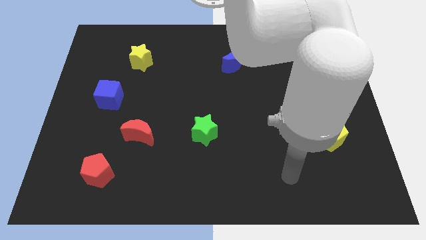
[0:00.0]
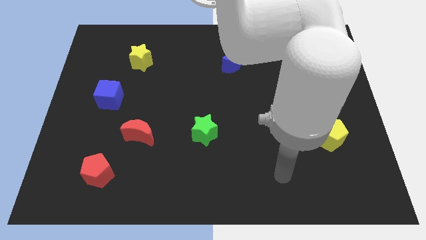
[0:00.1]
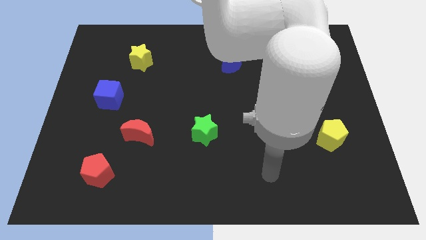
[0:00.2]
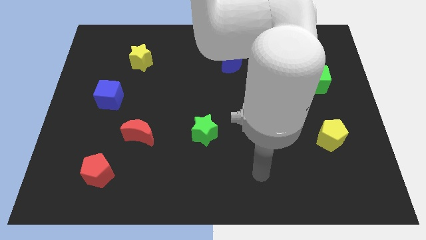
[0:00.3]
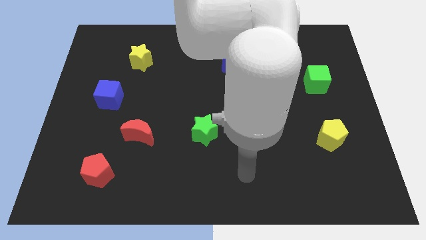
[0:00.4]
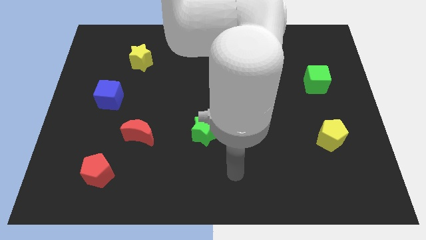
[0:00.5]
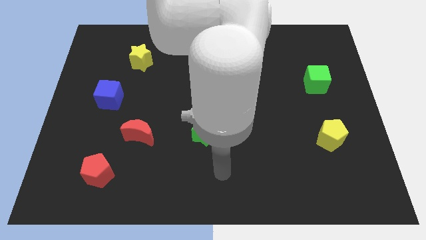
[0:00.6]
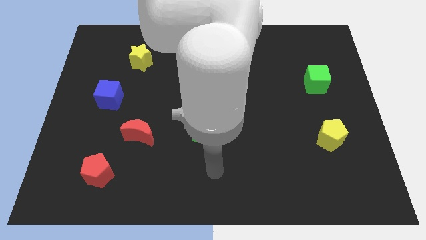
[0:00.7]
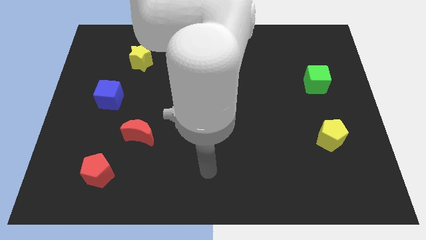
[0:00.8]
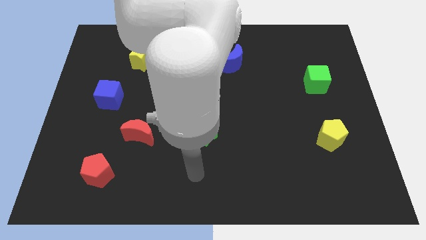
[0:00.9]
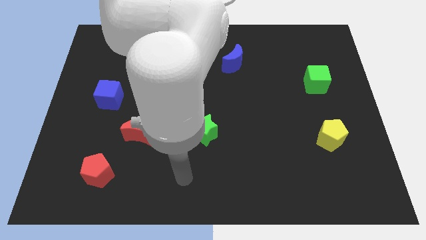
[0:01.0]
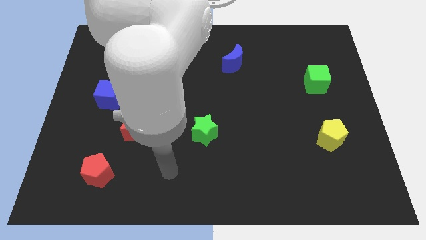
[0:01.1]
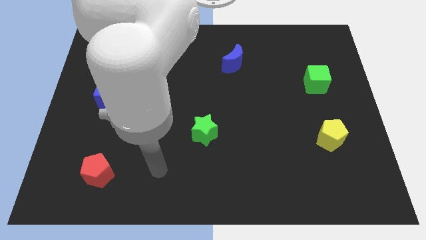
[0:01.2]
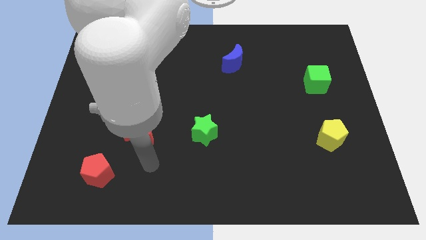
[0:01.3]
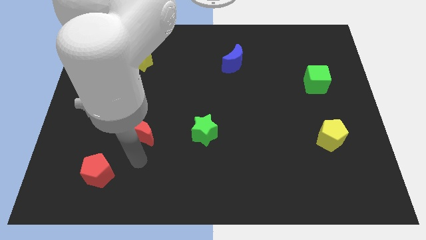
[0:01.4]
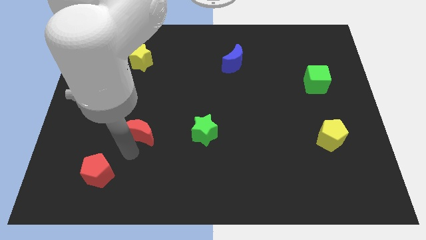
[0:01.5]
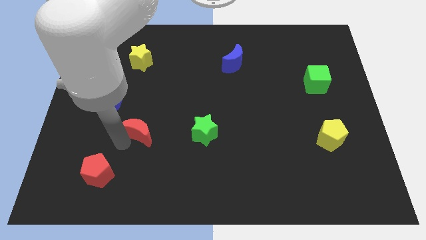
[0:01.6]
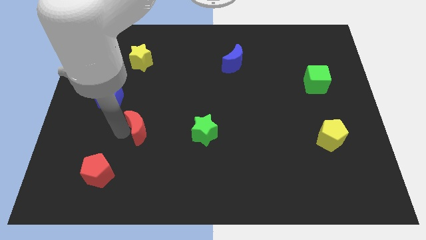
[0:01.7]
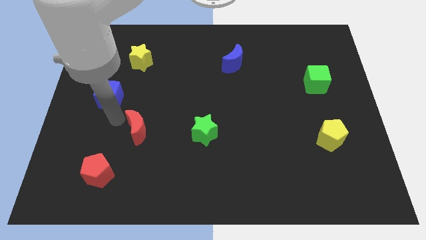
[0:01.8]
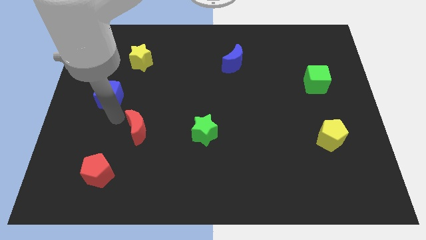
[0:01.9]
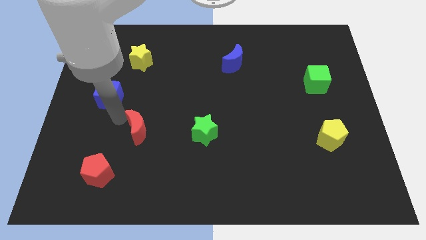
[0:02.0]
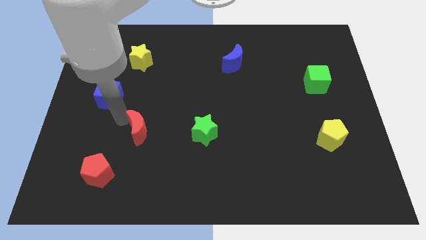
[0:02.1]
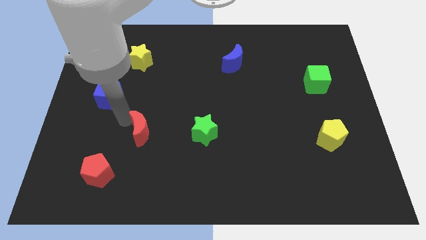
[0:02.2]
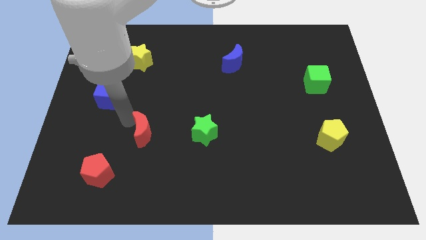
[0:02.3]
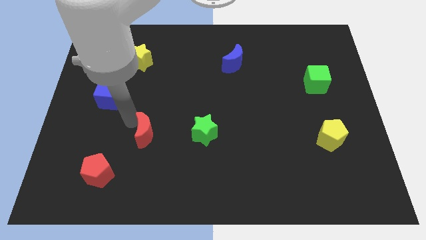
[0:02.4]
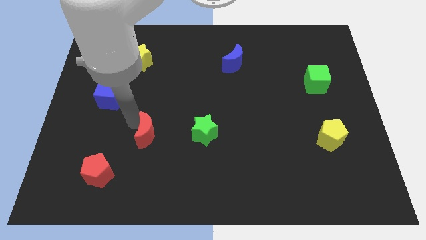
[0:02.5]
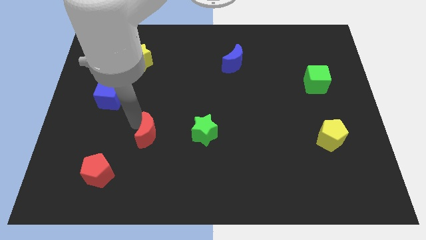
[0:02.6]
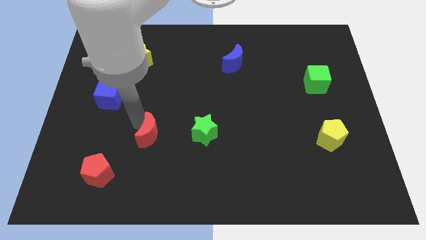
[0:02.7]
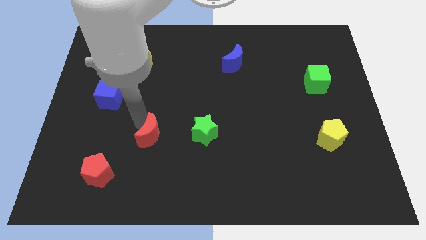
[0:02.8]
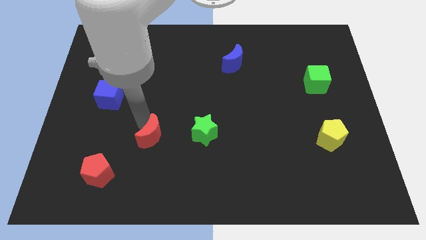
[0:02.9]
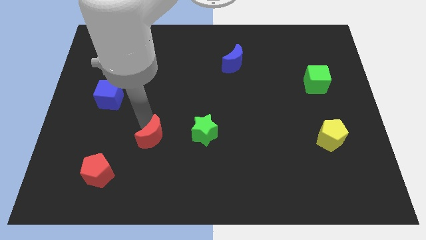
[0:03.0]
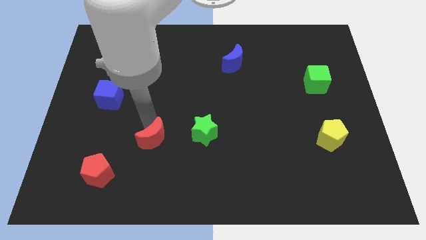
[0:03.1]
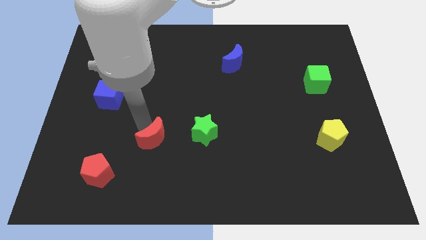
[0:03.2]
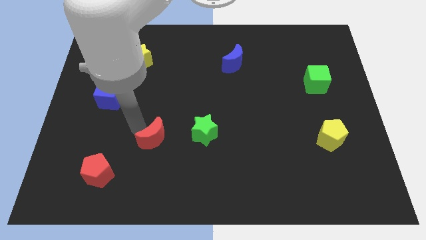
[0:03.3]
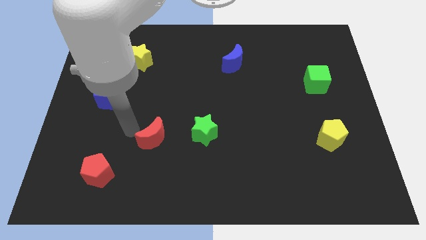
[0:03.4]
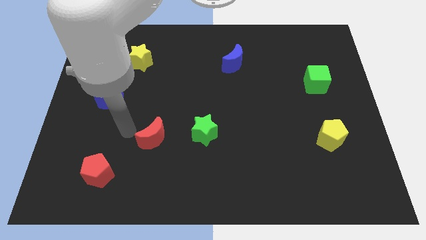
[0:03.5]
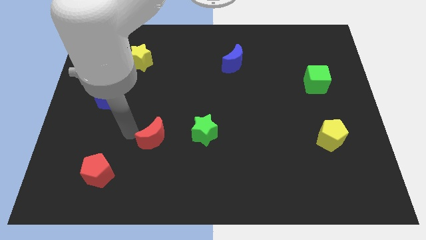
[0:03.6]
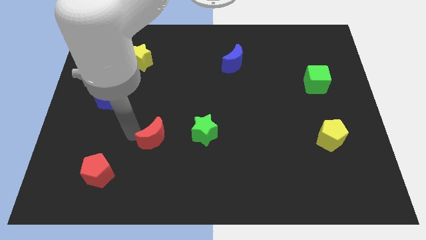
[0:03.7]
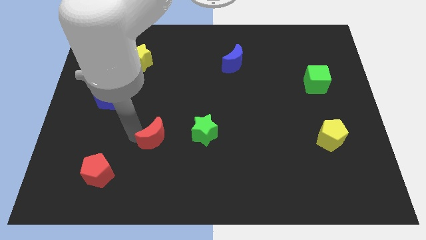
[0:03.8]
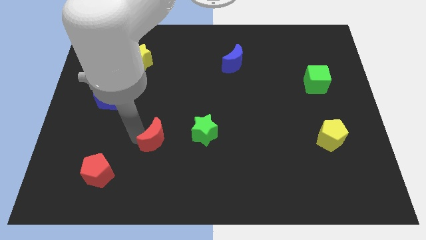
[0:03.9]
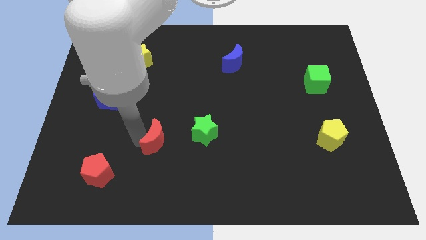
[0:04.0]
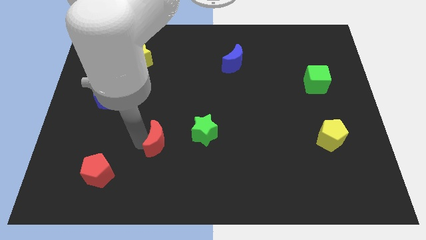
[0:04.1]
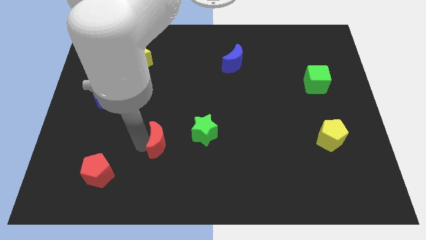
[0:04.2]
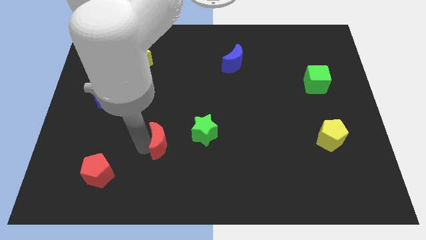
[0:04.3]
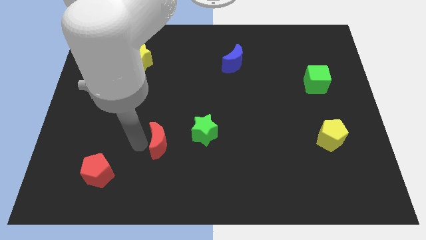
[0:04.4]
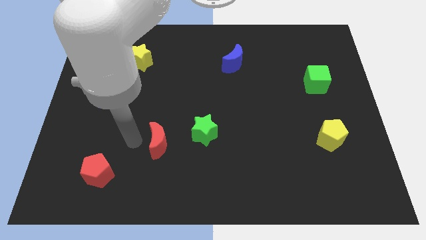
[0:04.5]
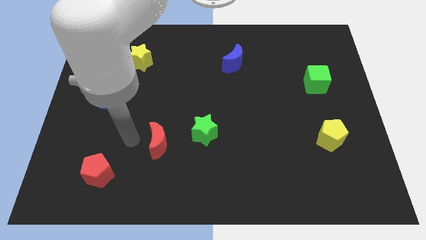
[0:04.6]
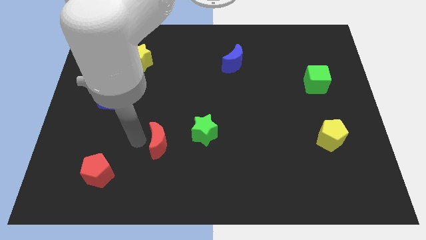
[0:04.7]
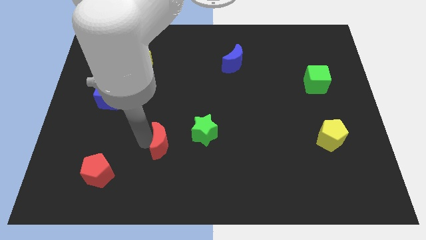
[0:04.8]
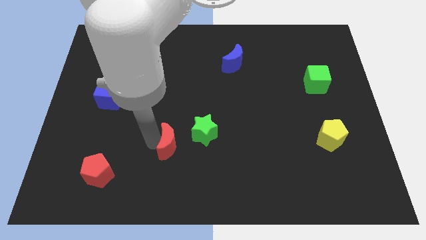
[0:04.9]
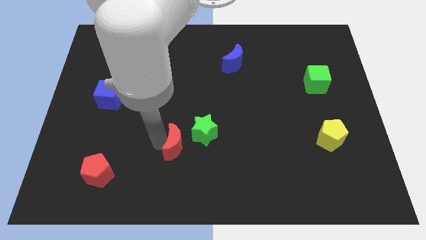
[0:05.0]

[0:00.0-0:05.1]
move the red moon somewhat right

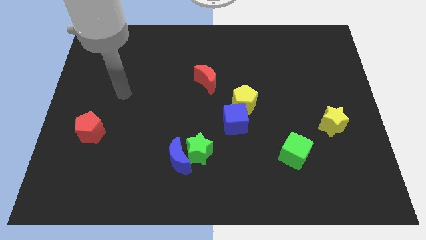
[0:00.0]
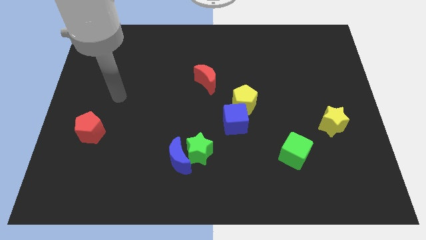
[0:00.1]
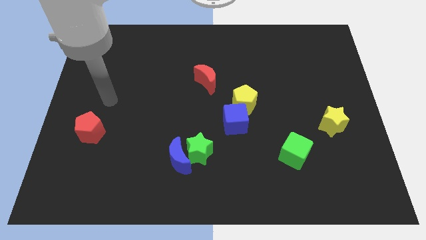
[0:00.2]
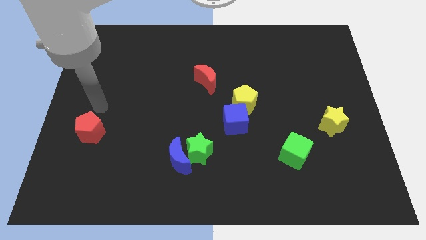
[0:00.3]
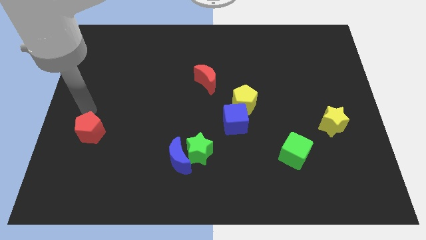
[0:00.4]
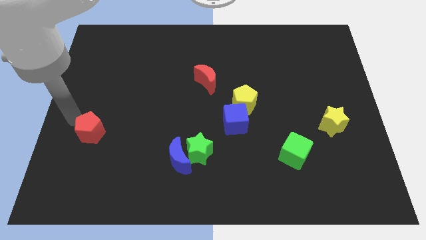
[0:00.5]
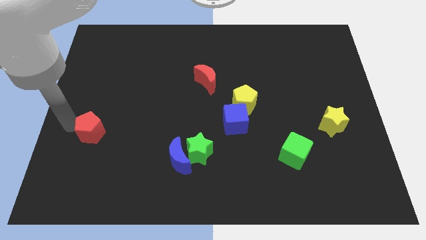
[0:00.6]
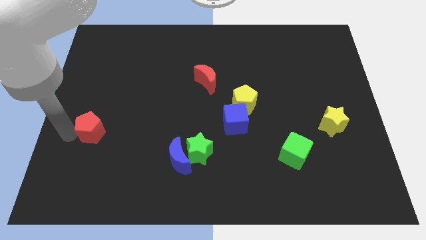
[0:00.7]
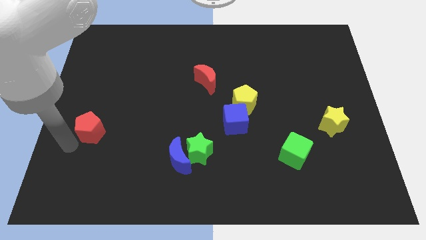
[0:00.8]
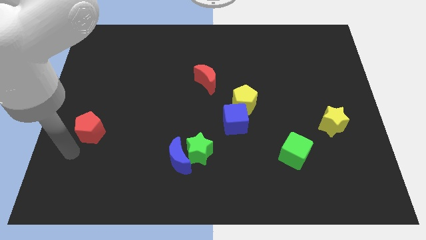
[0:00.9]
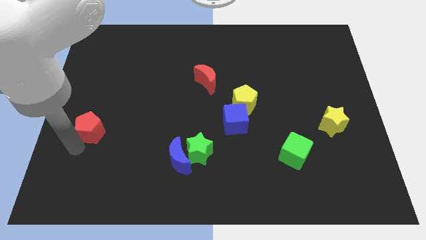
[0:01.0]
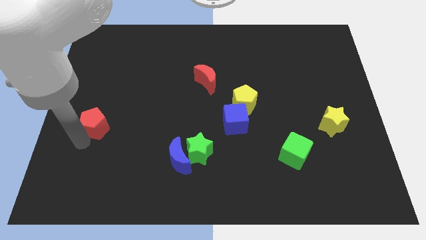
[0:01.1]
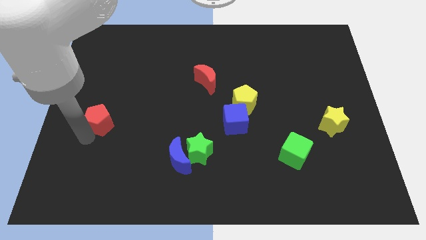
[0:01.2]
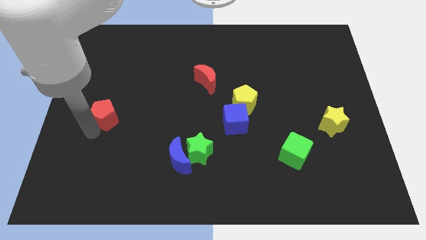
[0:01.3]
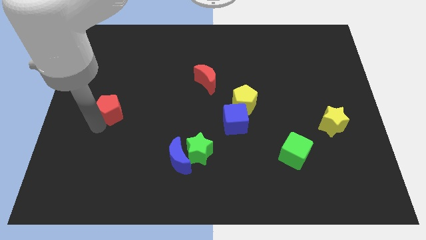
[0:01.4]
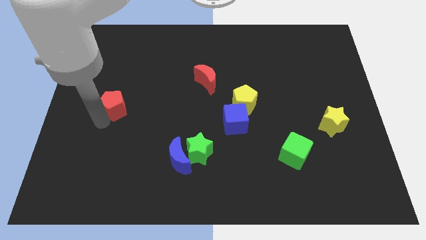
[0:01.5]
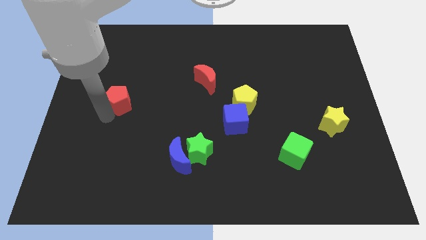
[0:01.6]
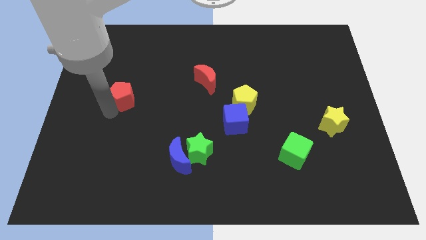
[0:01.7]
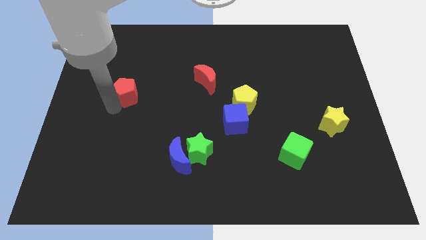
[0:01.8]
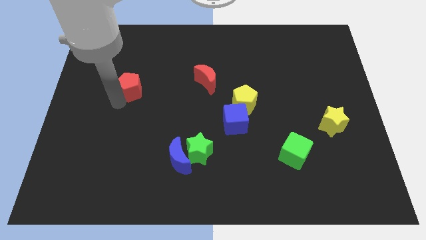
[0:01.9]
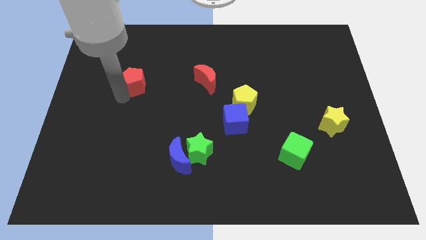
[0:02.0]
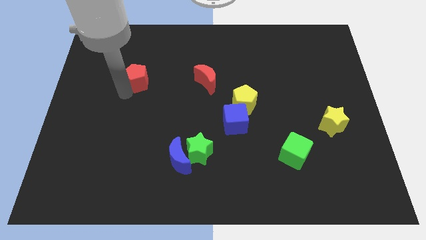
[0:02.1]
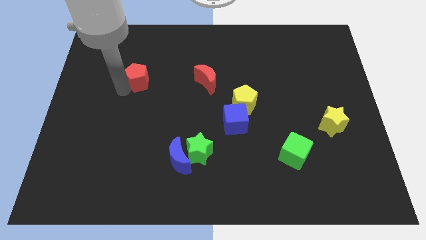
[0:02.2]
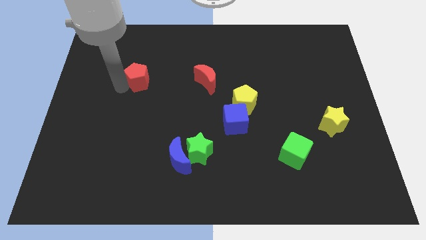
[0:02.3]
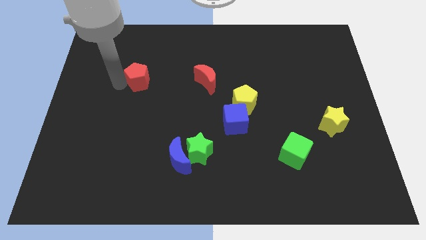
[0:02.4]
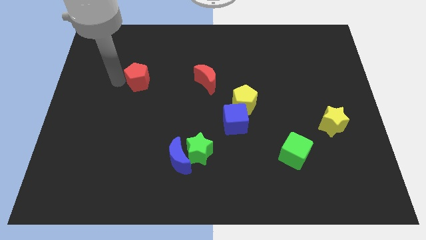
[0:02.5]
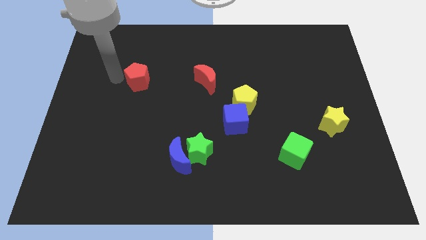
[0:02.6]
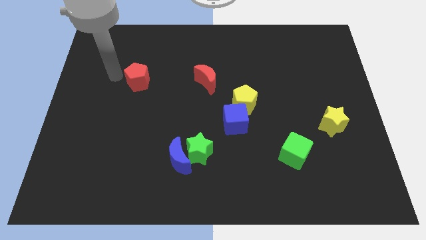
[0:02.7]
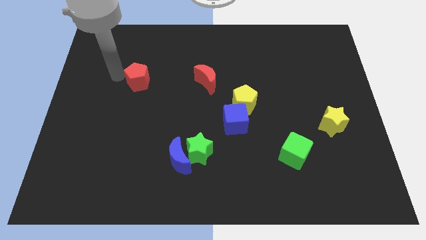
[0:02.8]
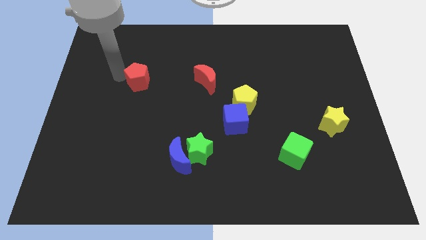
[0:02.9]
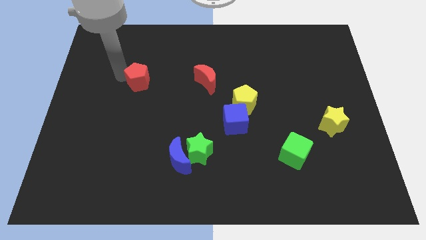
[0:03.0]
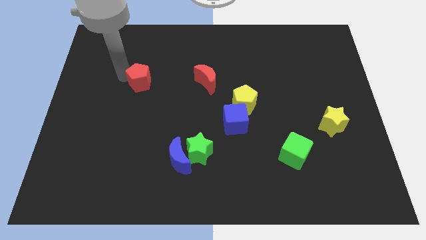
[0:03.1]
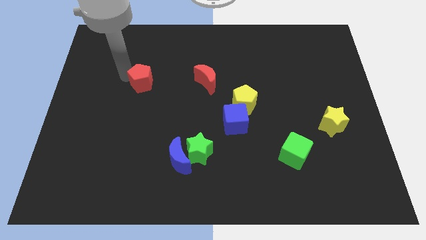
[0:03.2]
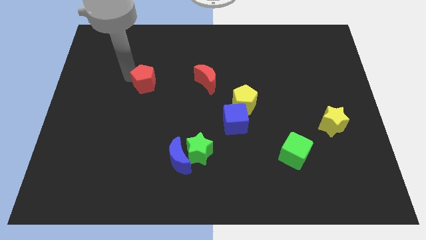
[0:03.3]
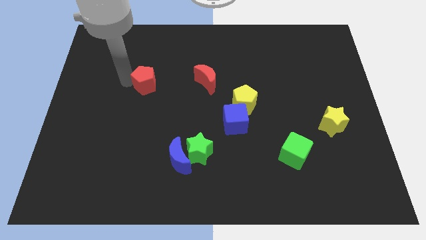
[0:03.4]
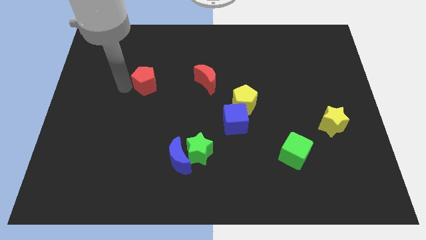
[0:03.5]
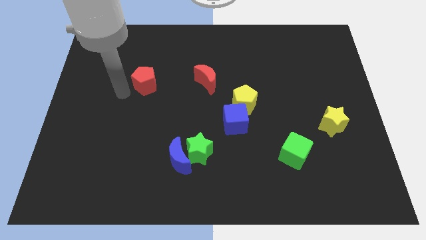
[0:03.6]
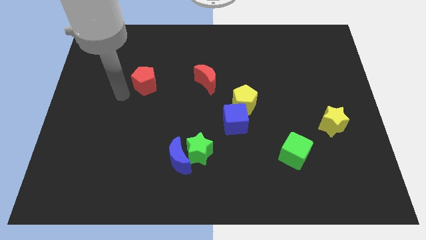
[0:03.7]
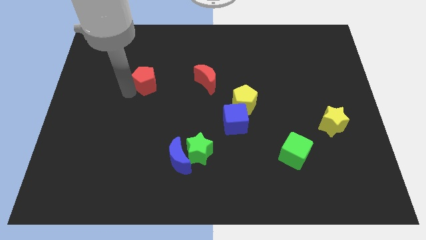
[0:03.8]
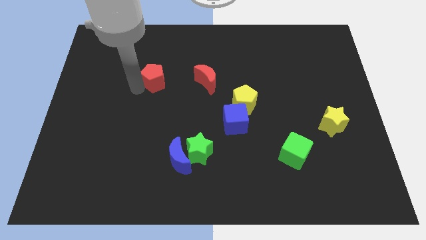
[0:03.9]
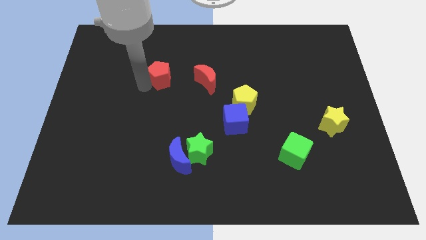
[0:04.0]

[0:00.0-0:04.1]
push the red pentagon upwards and right diagonally
